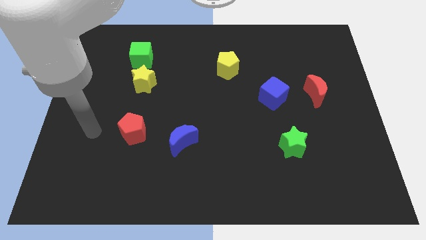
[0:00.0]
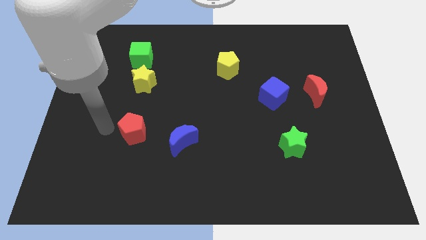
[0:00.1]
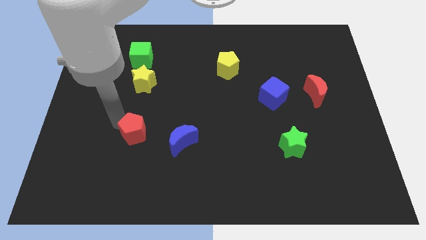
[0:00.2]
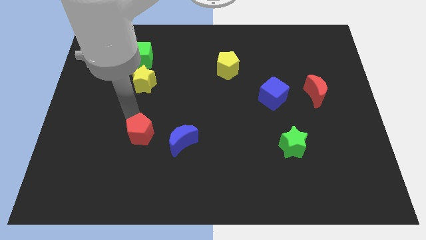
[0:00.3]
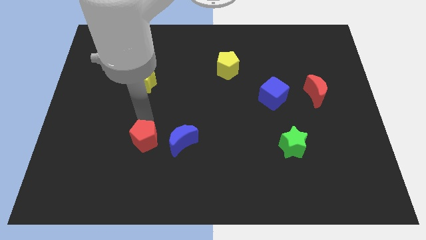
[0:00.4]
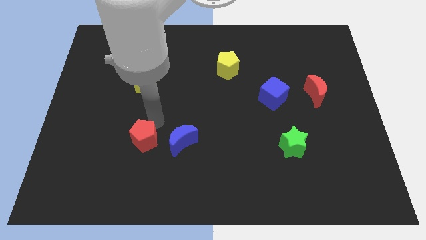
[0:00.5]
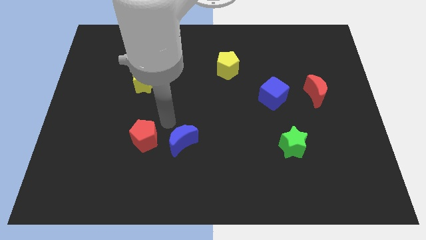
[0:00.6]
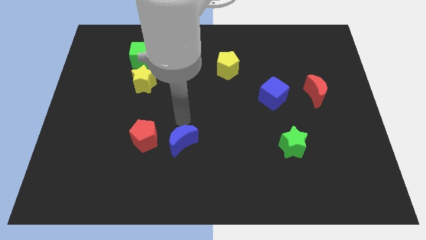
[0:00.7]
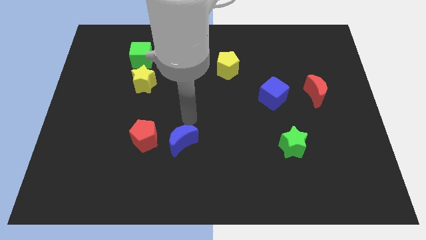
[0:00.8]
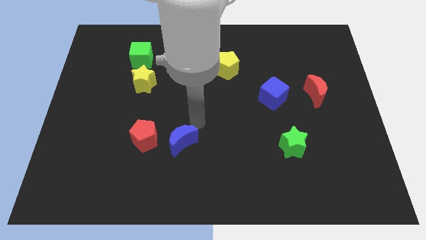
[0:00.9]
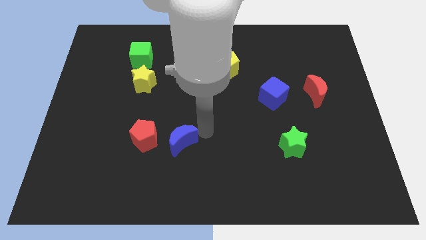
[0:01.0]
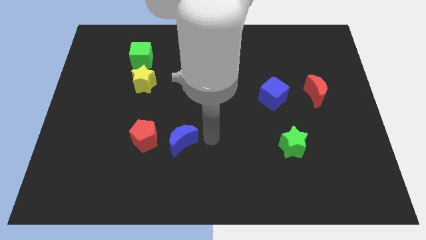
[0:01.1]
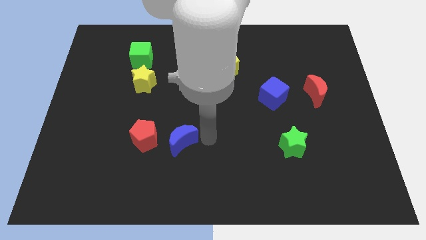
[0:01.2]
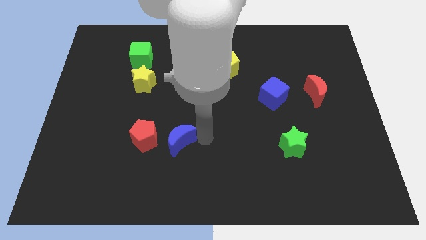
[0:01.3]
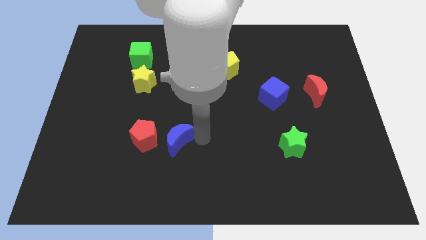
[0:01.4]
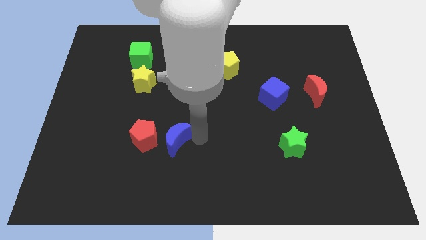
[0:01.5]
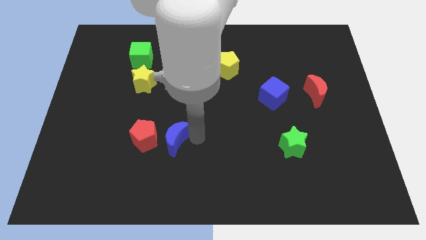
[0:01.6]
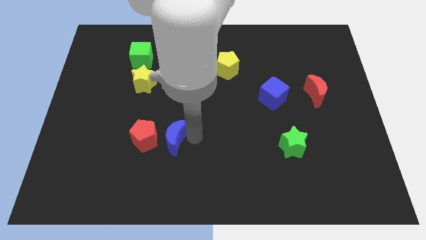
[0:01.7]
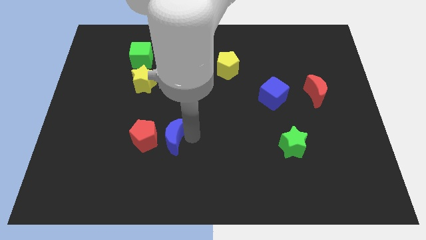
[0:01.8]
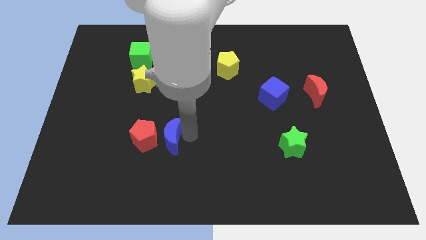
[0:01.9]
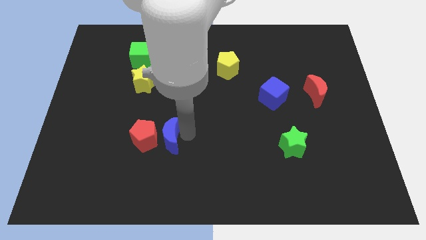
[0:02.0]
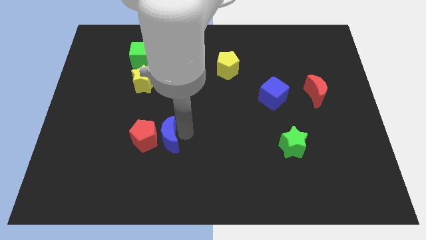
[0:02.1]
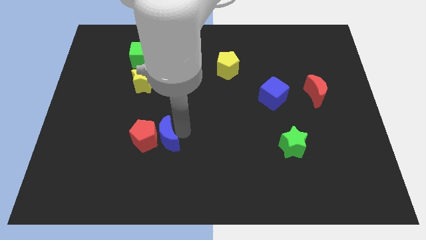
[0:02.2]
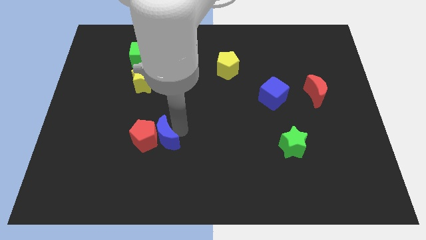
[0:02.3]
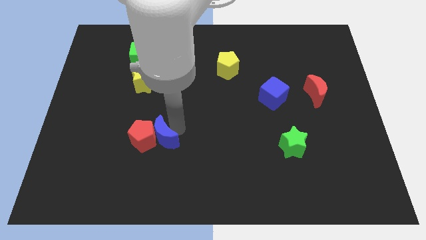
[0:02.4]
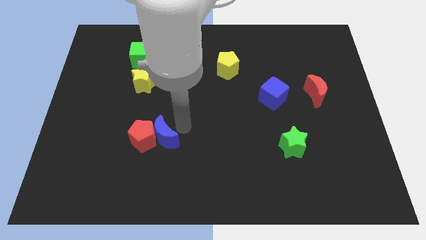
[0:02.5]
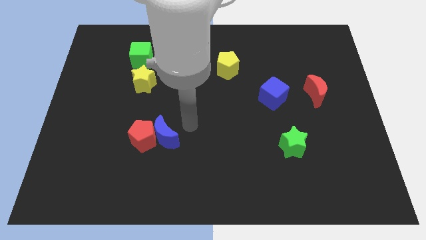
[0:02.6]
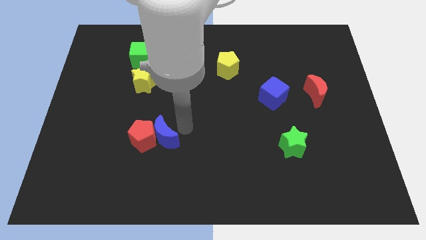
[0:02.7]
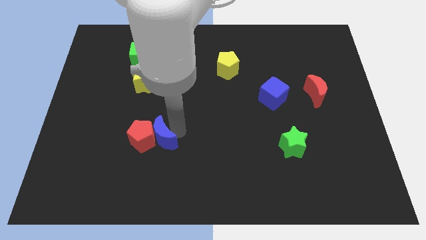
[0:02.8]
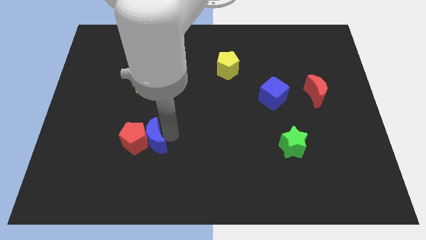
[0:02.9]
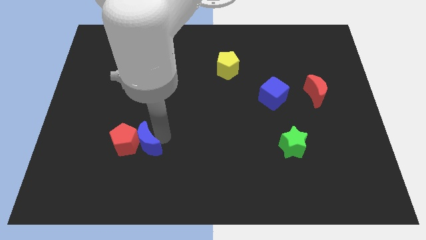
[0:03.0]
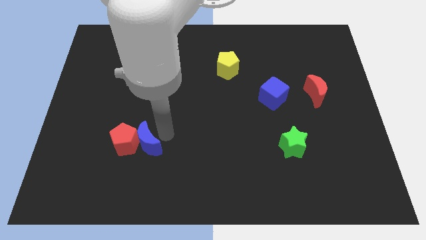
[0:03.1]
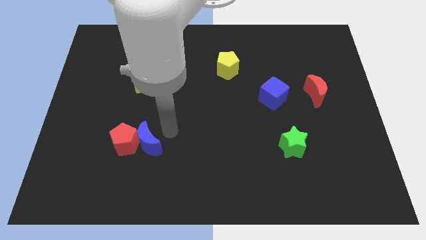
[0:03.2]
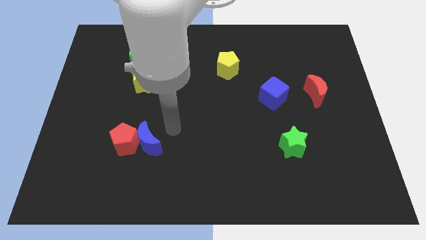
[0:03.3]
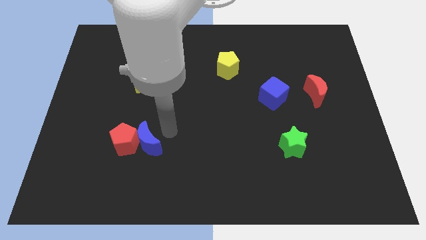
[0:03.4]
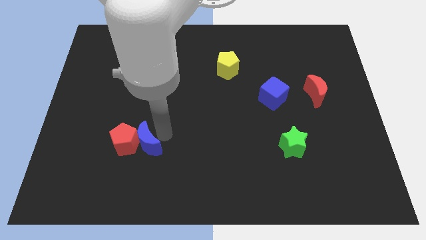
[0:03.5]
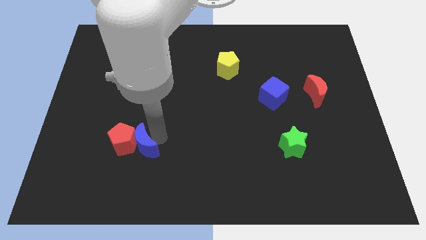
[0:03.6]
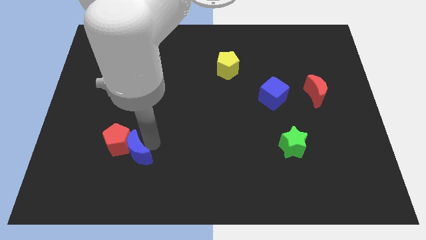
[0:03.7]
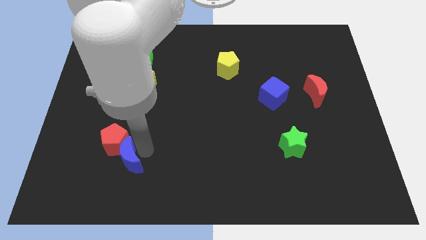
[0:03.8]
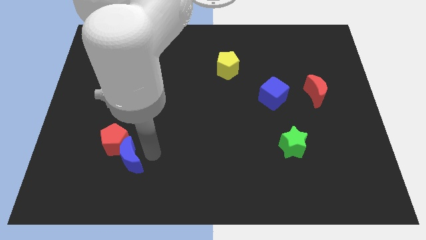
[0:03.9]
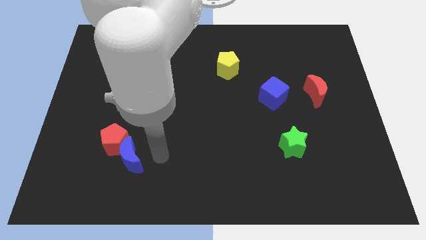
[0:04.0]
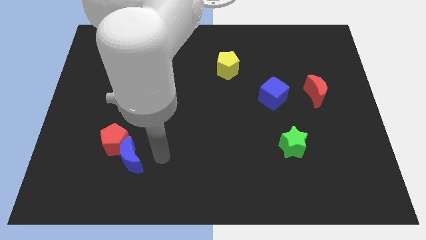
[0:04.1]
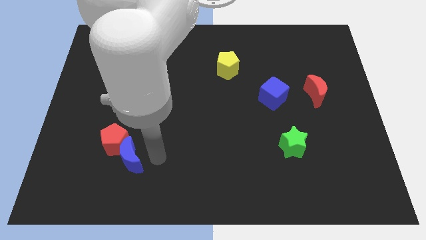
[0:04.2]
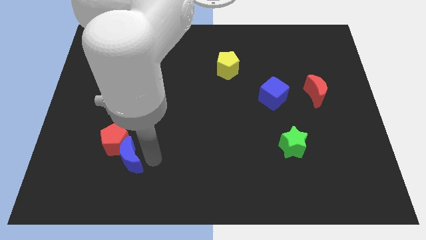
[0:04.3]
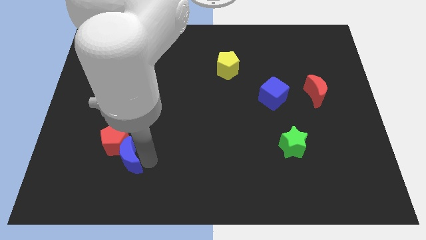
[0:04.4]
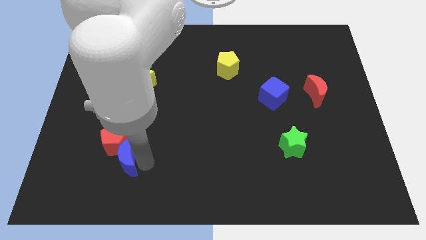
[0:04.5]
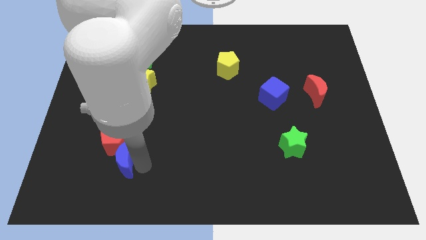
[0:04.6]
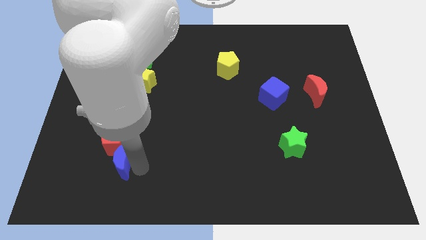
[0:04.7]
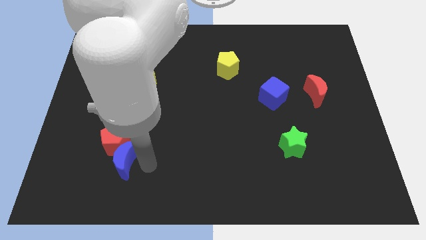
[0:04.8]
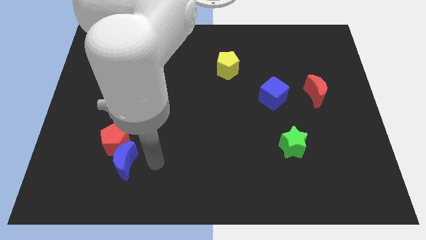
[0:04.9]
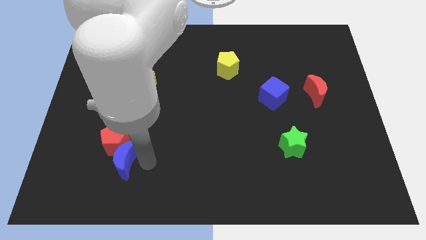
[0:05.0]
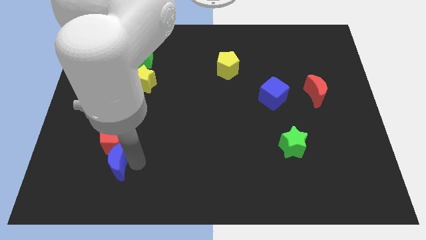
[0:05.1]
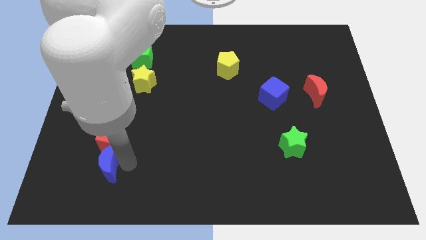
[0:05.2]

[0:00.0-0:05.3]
push the blue moon to the bottom left side of the red pentagon

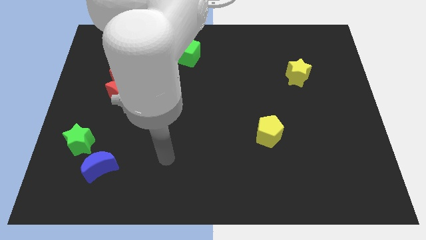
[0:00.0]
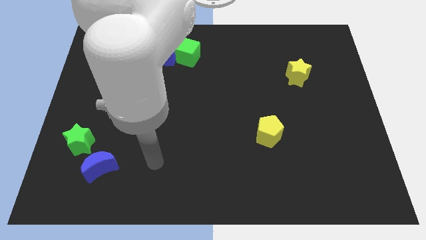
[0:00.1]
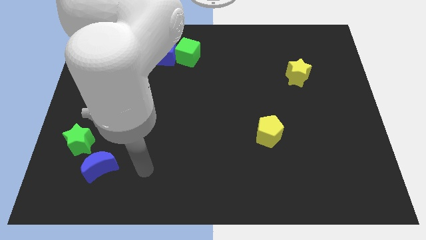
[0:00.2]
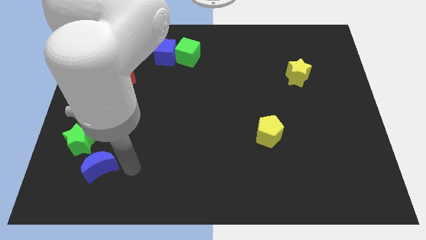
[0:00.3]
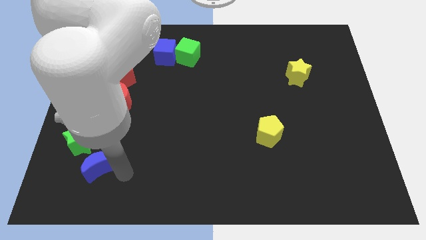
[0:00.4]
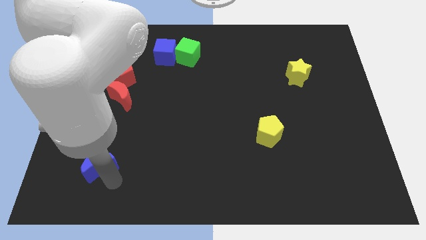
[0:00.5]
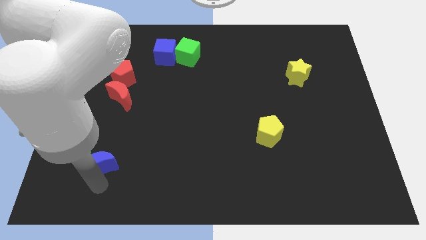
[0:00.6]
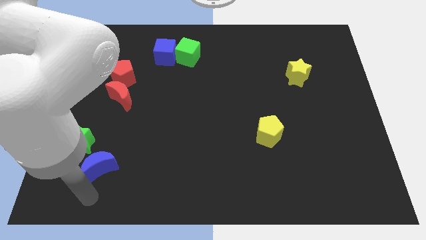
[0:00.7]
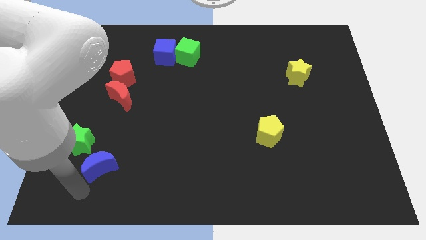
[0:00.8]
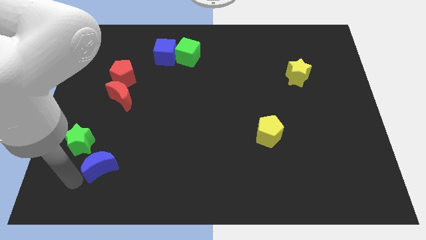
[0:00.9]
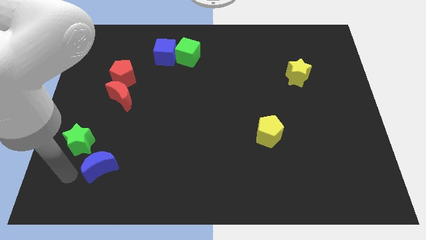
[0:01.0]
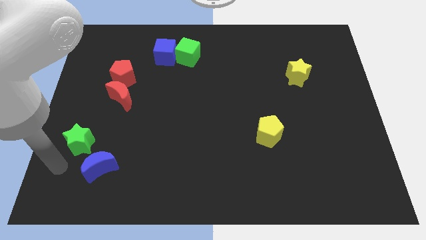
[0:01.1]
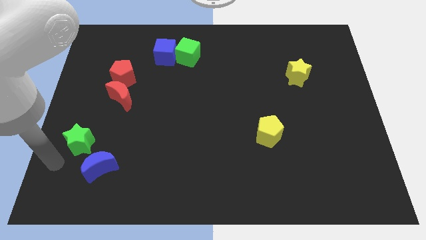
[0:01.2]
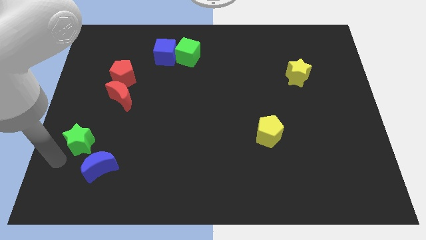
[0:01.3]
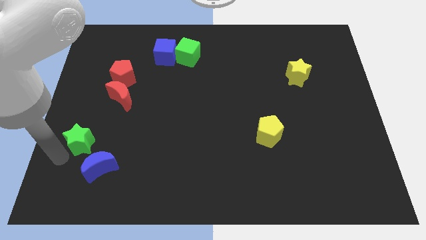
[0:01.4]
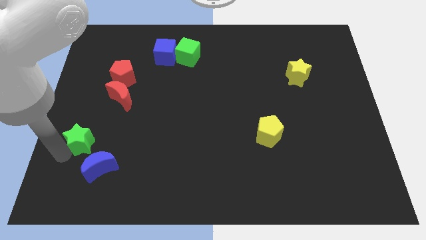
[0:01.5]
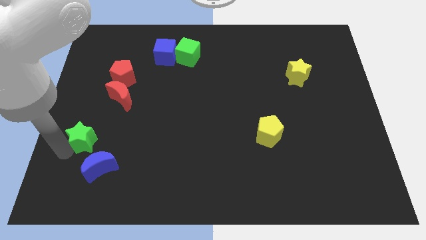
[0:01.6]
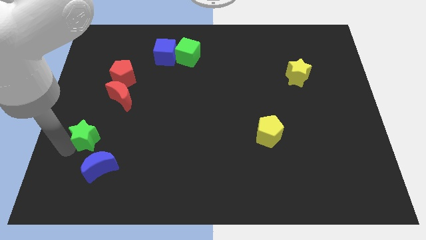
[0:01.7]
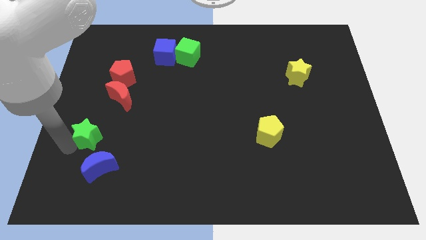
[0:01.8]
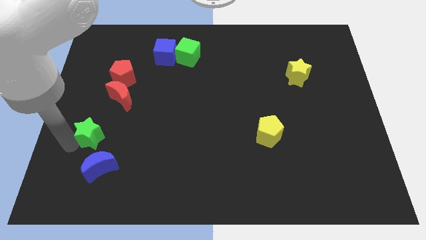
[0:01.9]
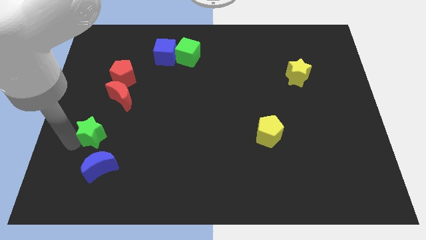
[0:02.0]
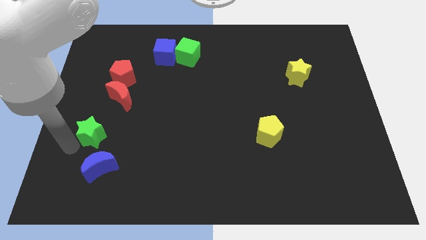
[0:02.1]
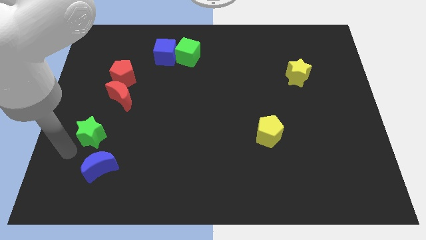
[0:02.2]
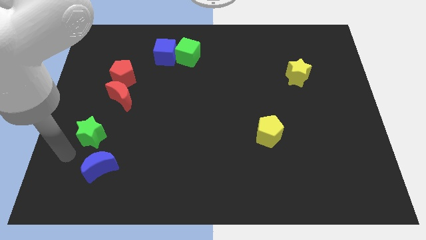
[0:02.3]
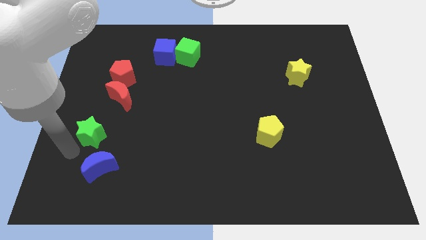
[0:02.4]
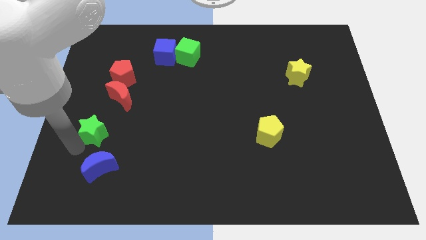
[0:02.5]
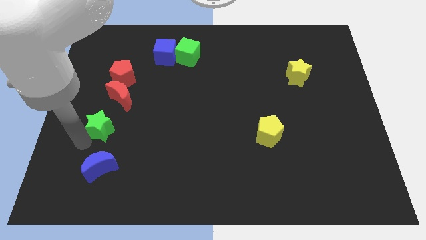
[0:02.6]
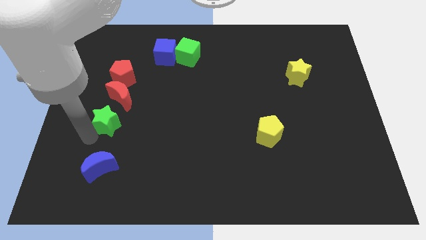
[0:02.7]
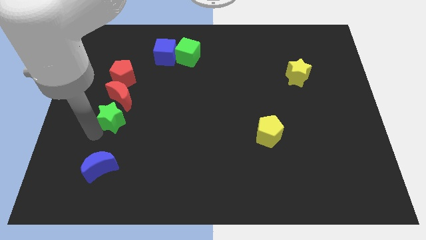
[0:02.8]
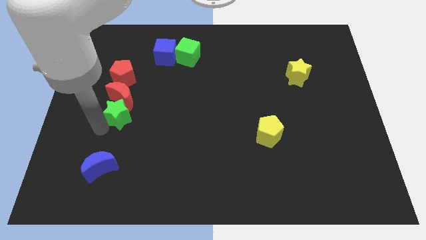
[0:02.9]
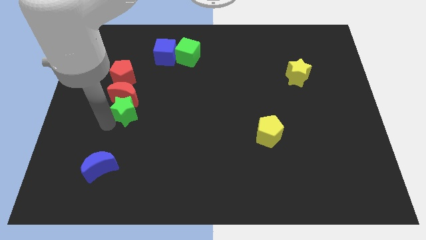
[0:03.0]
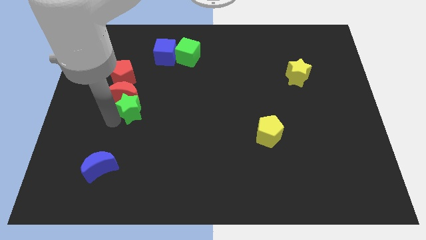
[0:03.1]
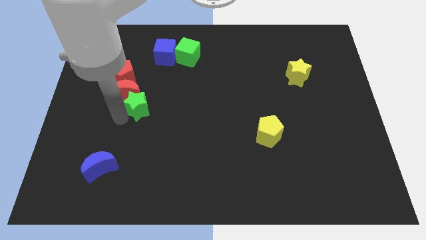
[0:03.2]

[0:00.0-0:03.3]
put the green star to the bottom right side of the red pentagon
